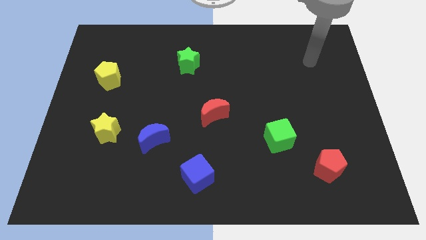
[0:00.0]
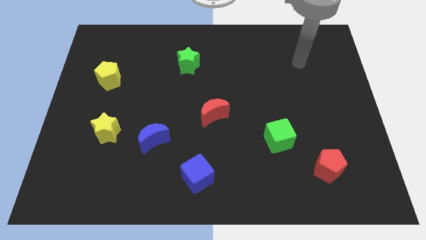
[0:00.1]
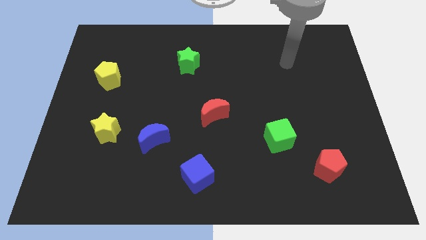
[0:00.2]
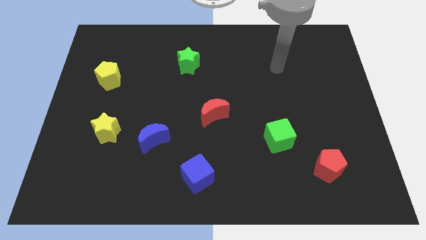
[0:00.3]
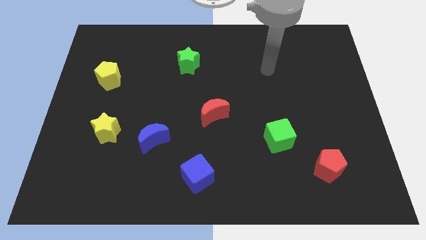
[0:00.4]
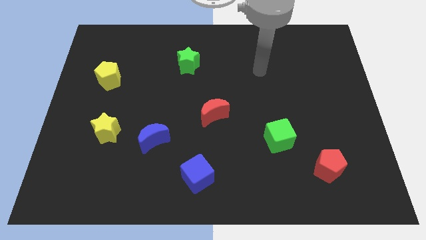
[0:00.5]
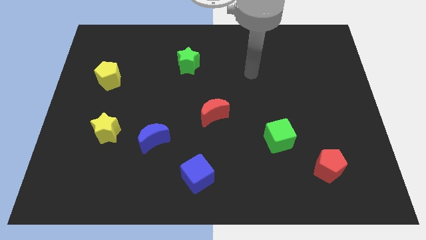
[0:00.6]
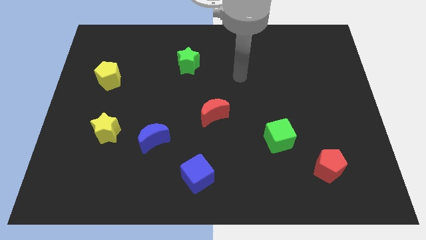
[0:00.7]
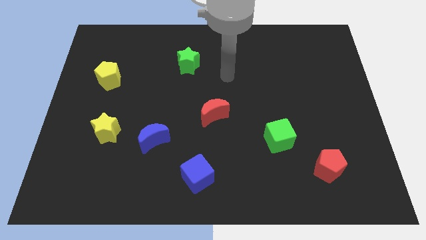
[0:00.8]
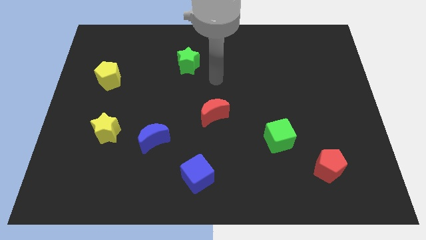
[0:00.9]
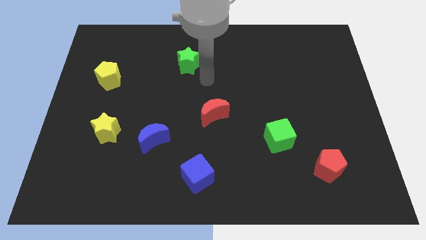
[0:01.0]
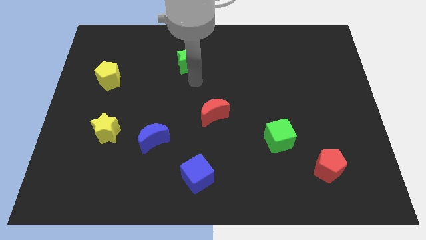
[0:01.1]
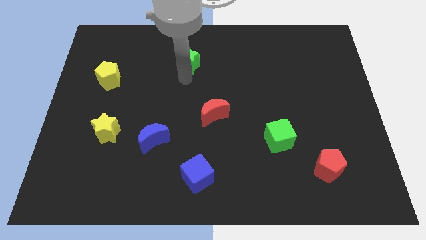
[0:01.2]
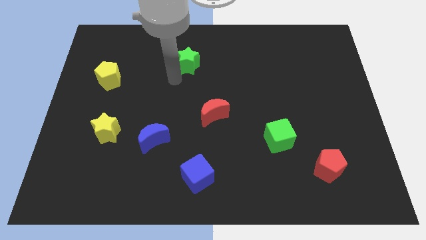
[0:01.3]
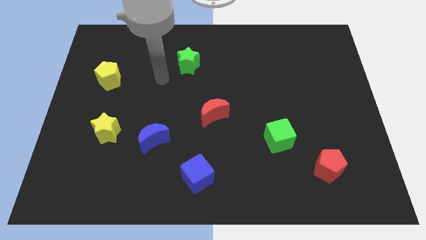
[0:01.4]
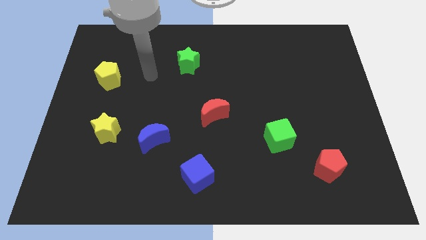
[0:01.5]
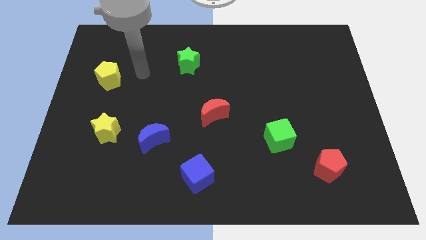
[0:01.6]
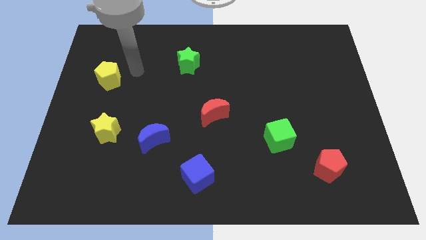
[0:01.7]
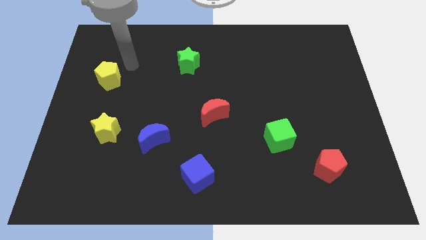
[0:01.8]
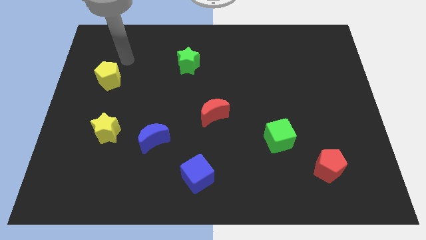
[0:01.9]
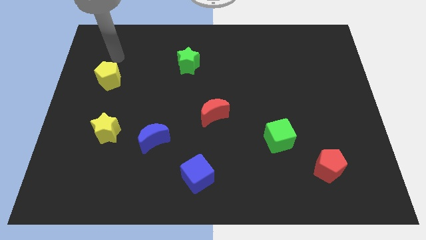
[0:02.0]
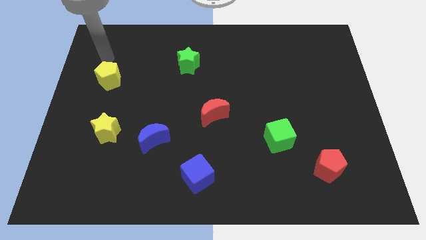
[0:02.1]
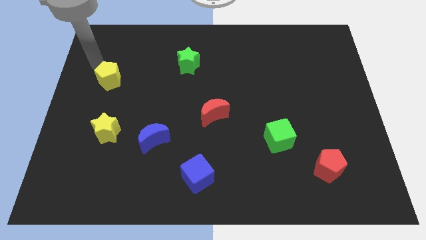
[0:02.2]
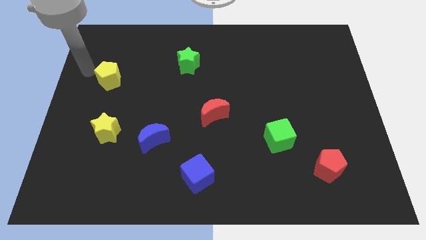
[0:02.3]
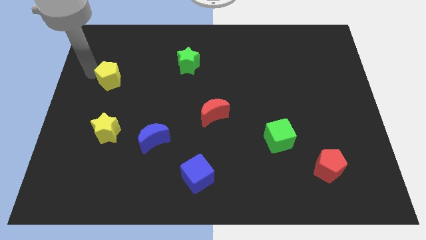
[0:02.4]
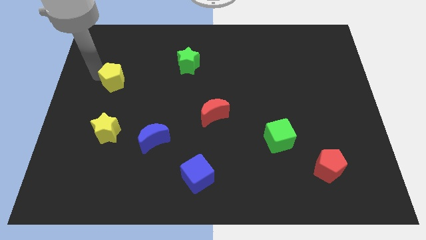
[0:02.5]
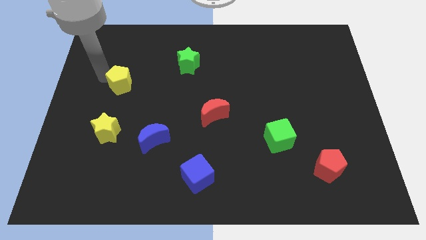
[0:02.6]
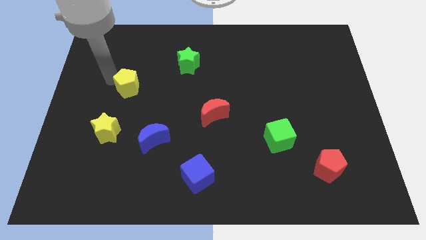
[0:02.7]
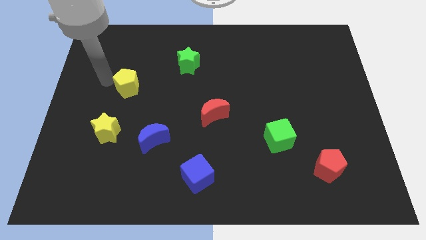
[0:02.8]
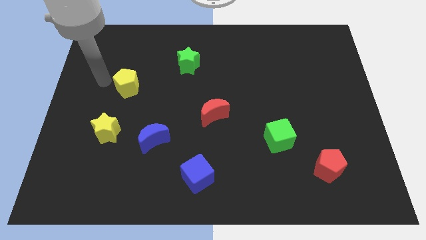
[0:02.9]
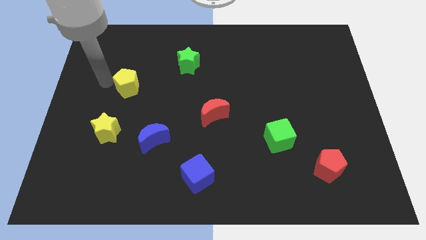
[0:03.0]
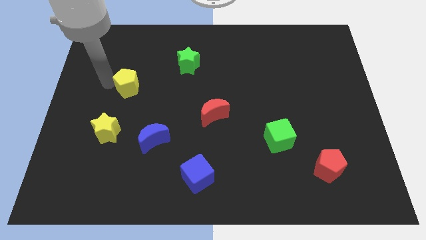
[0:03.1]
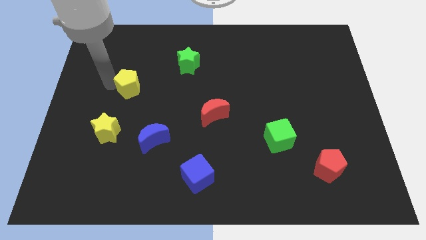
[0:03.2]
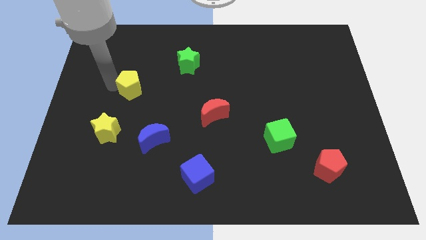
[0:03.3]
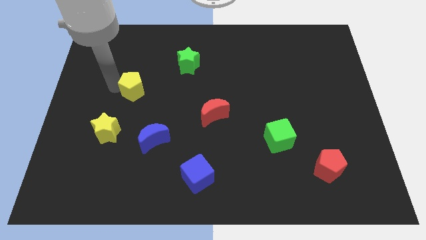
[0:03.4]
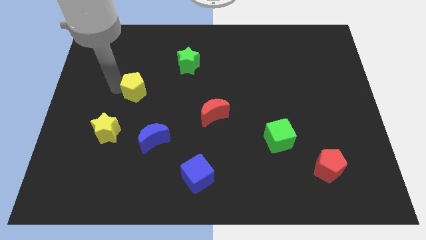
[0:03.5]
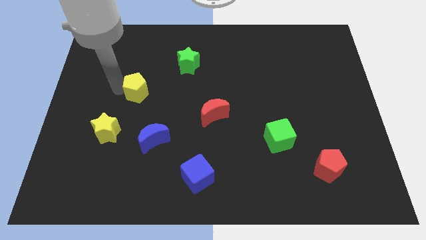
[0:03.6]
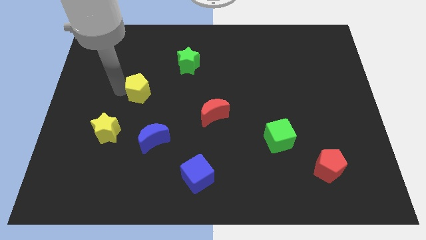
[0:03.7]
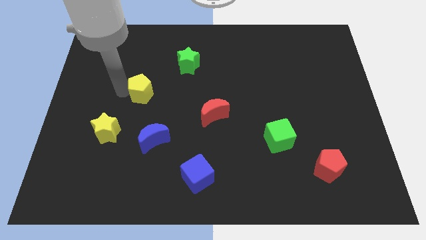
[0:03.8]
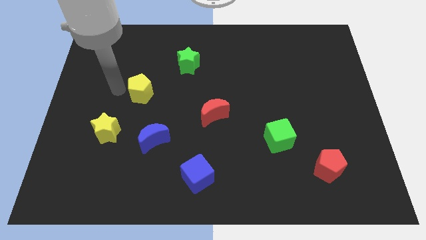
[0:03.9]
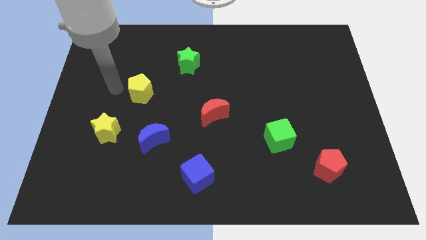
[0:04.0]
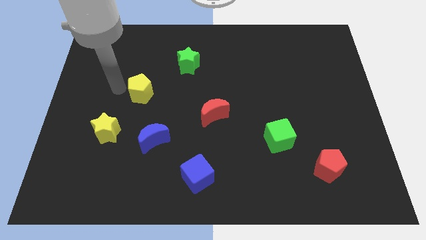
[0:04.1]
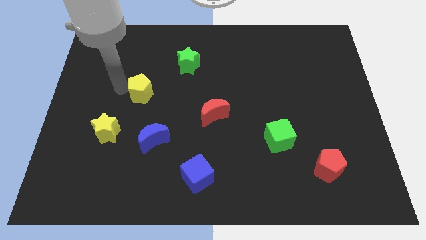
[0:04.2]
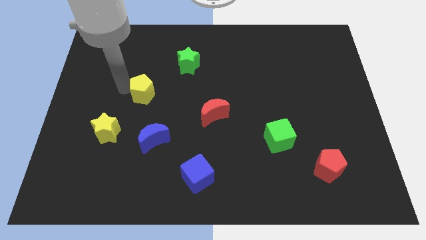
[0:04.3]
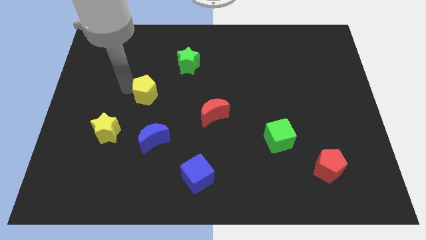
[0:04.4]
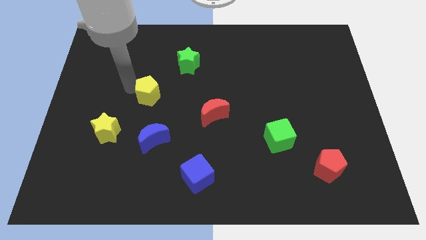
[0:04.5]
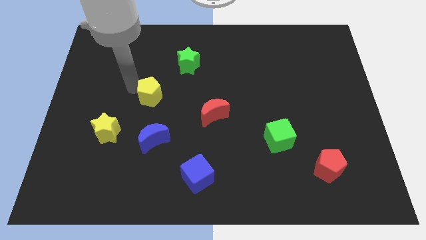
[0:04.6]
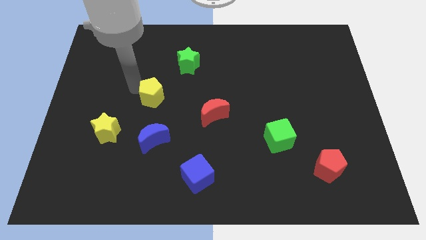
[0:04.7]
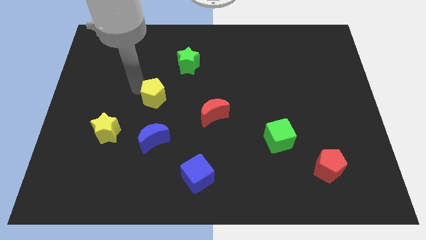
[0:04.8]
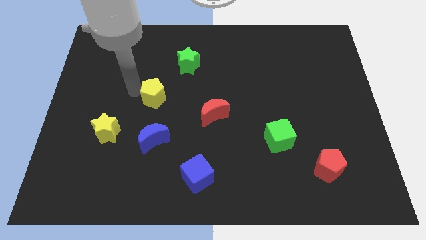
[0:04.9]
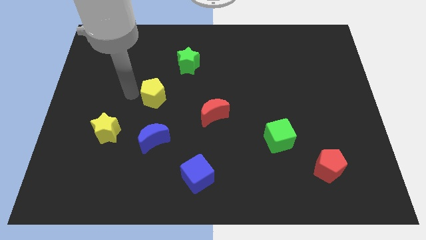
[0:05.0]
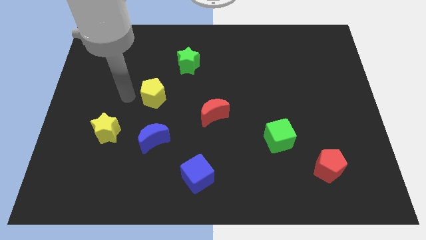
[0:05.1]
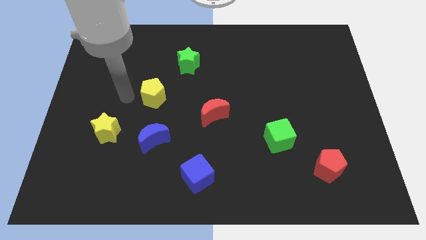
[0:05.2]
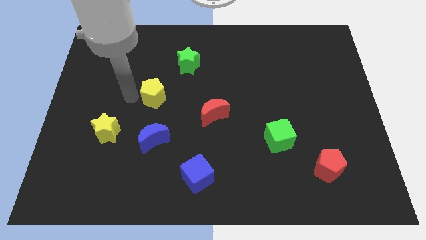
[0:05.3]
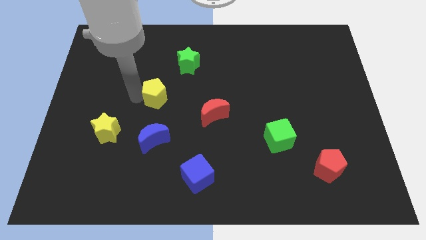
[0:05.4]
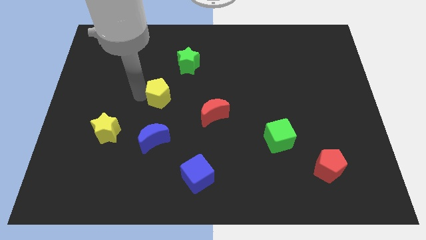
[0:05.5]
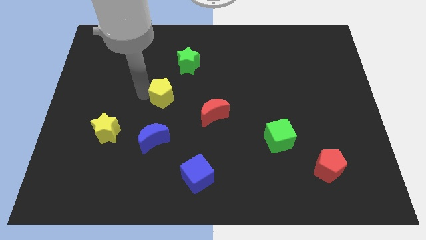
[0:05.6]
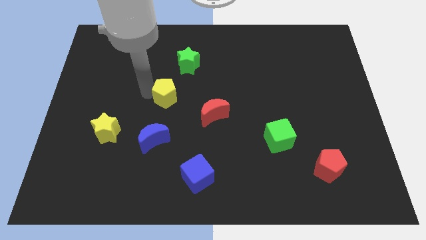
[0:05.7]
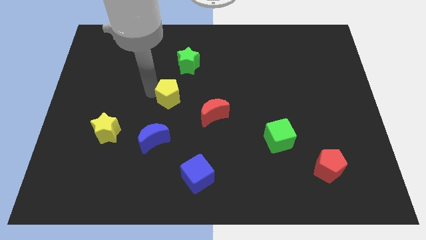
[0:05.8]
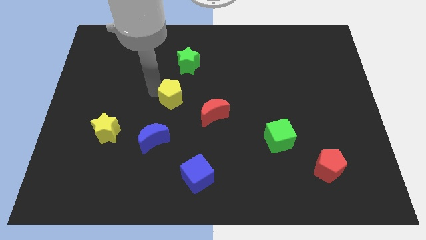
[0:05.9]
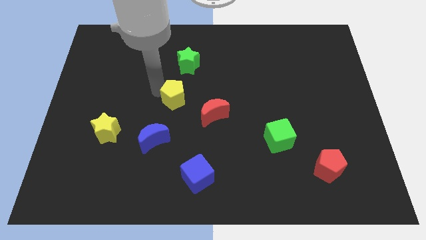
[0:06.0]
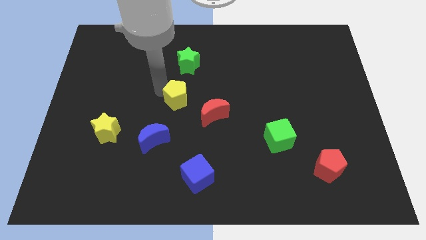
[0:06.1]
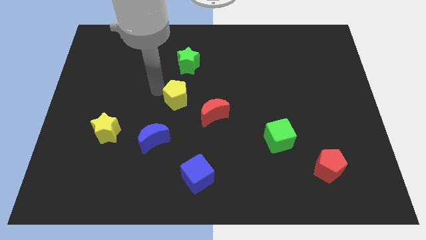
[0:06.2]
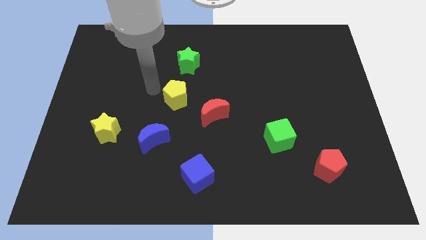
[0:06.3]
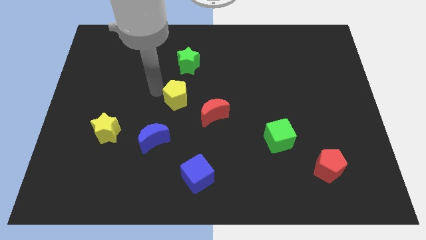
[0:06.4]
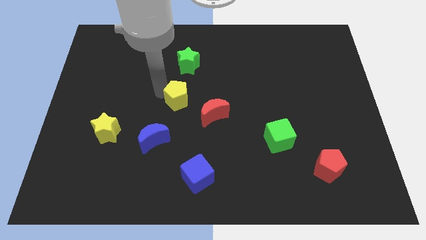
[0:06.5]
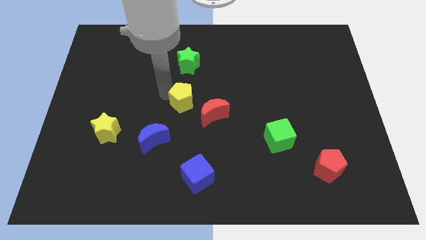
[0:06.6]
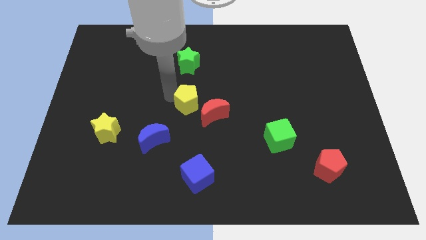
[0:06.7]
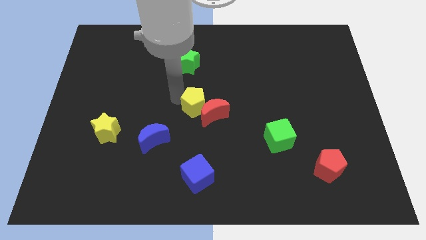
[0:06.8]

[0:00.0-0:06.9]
put the yellow pentagon close to the red moon

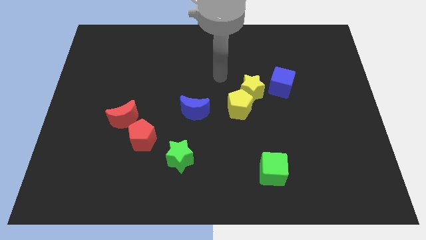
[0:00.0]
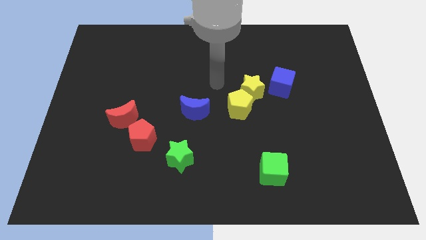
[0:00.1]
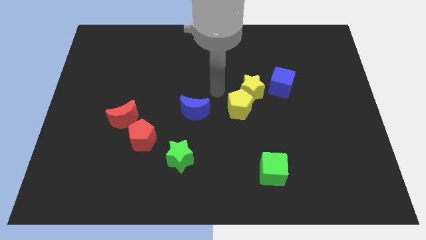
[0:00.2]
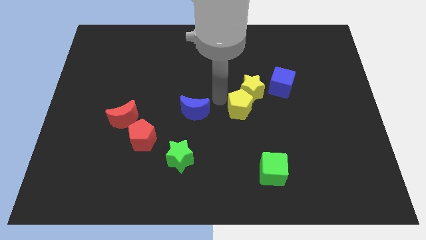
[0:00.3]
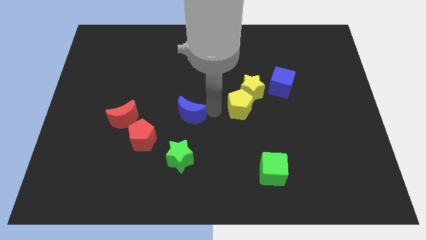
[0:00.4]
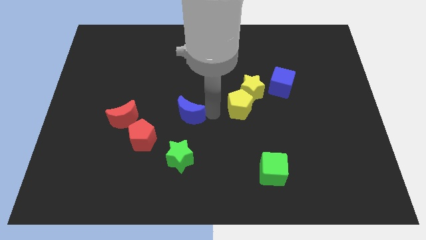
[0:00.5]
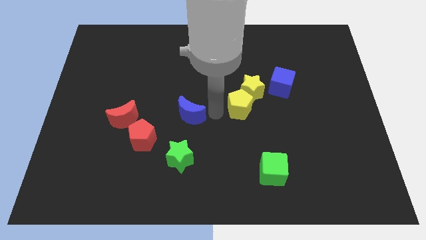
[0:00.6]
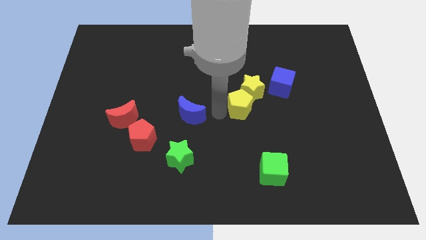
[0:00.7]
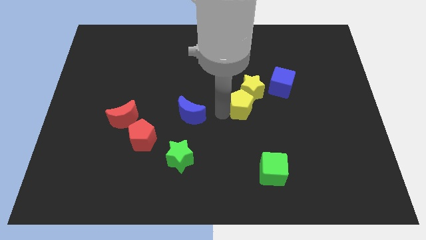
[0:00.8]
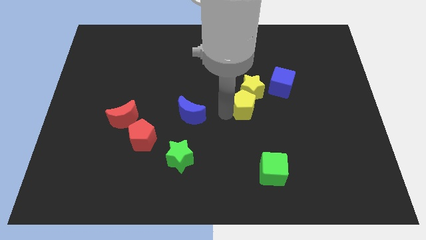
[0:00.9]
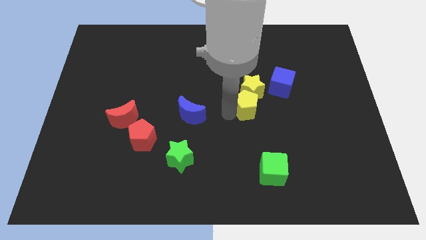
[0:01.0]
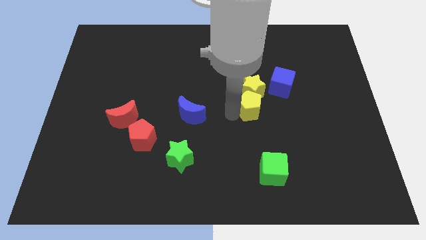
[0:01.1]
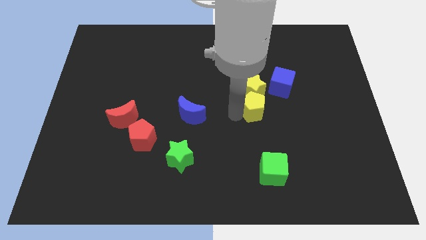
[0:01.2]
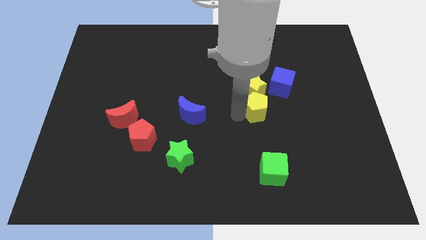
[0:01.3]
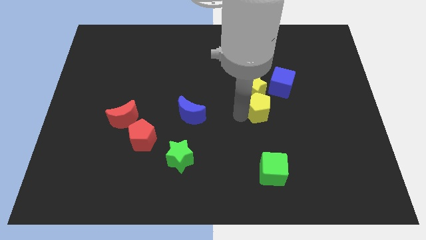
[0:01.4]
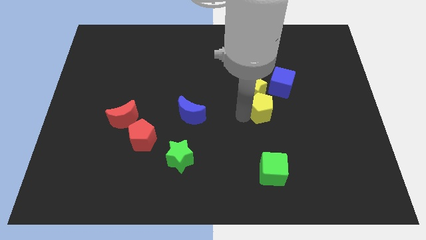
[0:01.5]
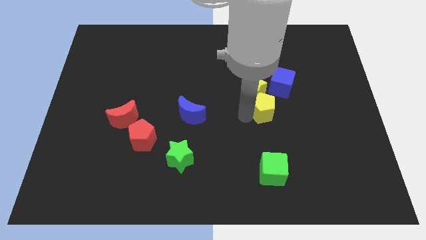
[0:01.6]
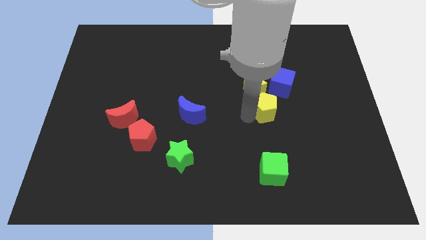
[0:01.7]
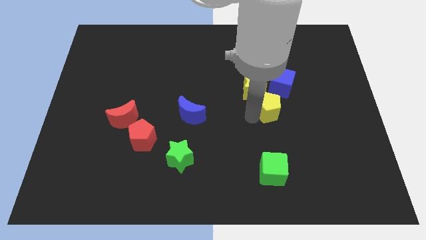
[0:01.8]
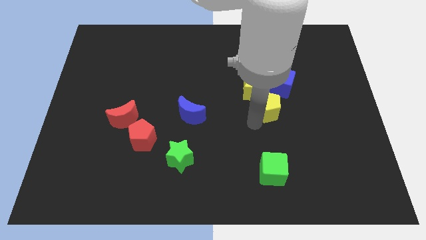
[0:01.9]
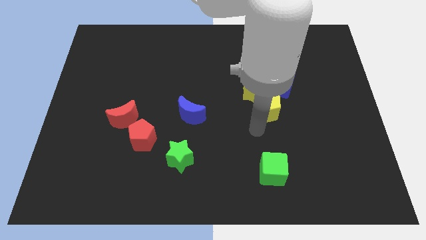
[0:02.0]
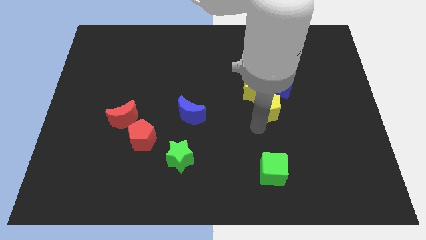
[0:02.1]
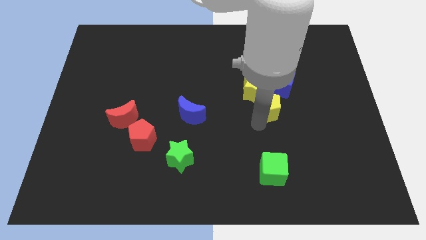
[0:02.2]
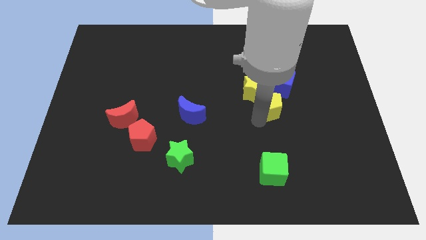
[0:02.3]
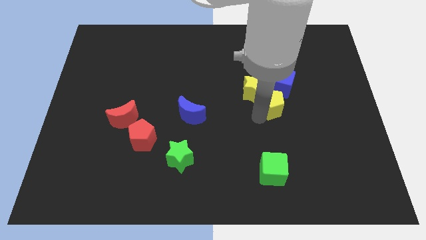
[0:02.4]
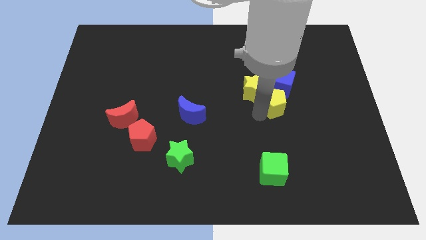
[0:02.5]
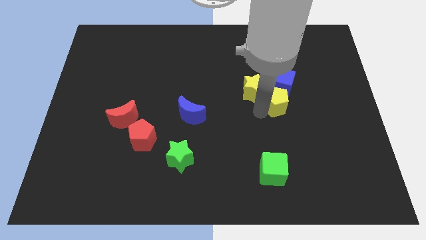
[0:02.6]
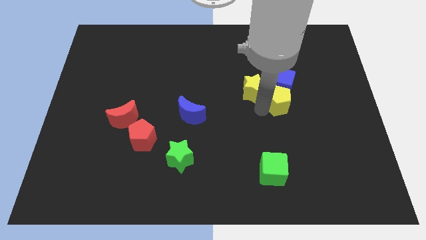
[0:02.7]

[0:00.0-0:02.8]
slide the yellow pentagon close to the blue cube
